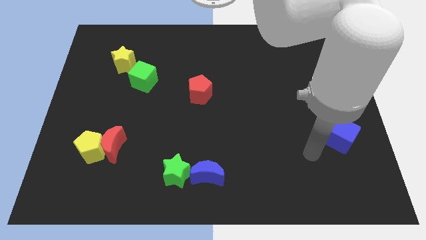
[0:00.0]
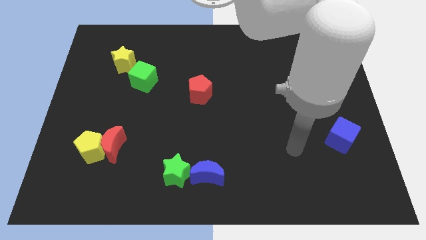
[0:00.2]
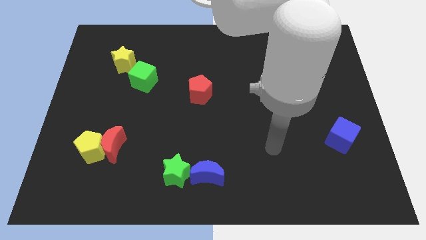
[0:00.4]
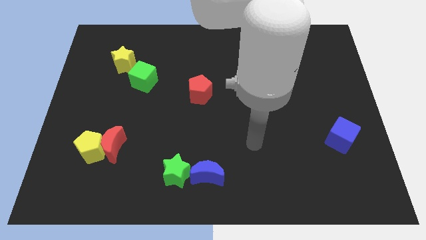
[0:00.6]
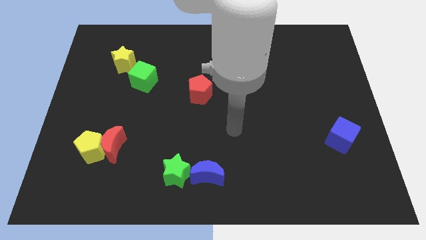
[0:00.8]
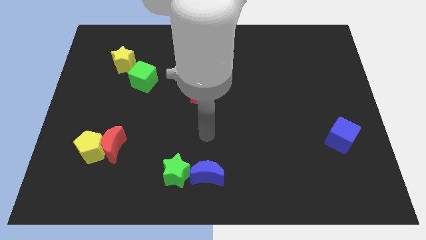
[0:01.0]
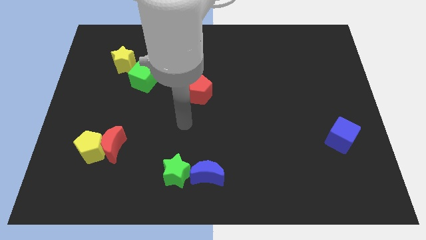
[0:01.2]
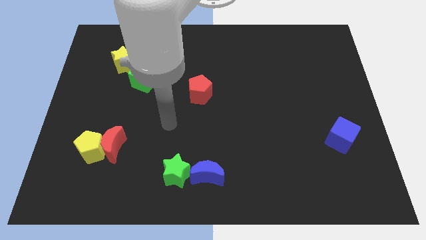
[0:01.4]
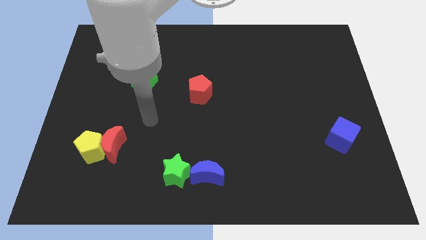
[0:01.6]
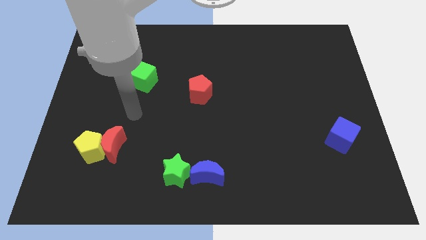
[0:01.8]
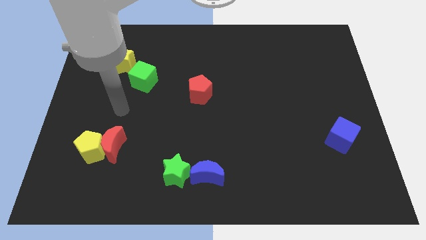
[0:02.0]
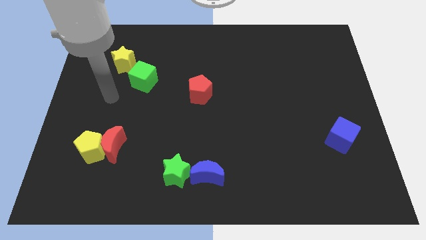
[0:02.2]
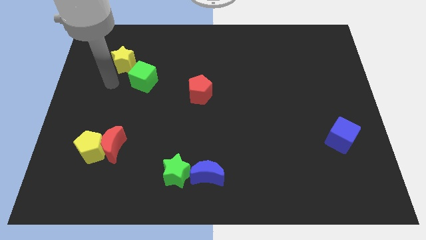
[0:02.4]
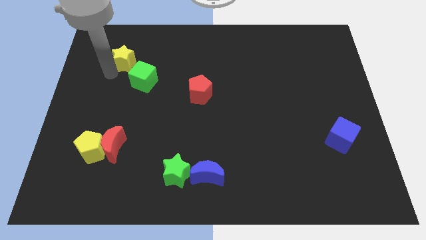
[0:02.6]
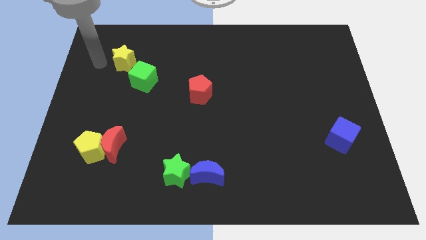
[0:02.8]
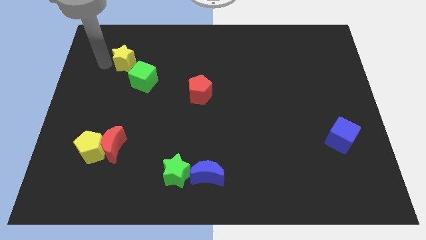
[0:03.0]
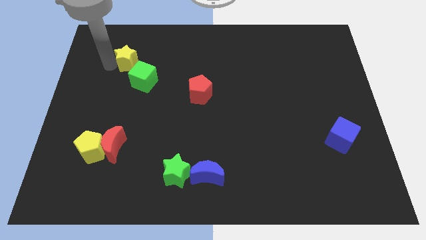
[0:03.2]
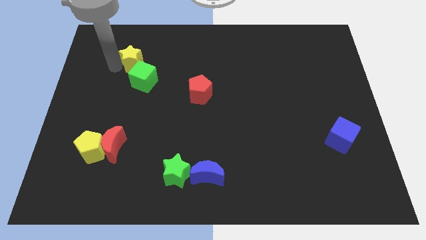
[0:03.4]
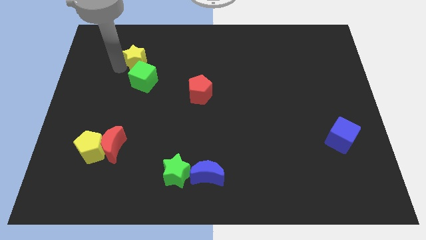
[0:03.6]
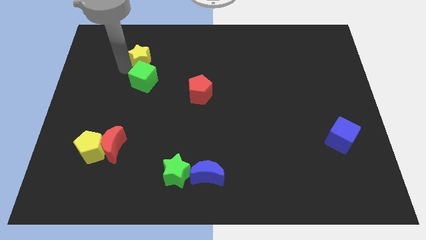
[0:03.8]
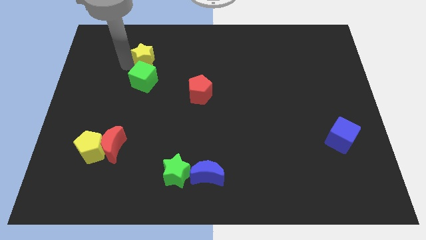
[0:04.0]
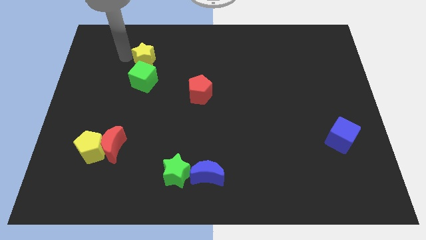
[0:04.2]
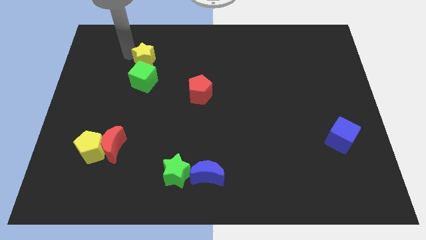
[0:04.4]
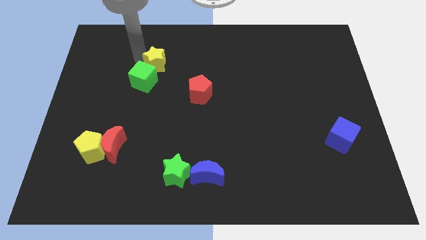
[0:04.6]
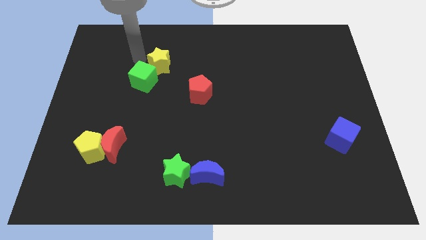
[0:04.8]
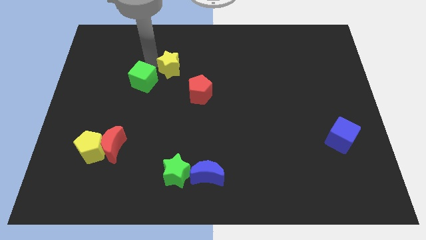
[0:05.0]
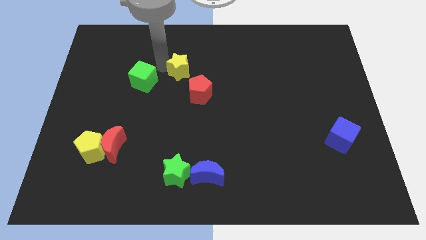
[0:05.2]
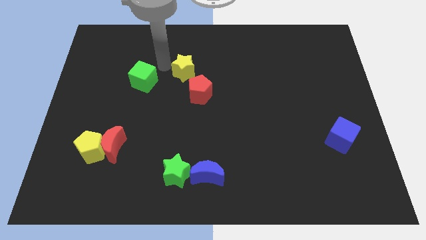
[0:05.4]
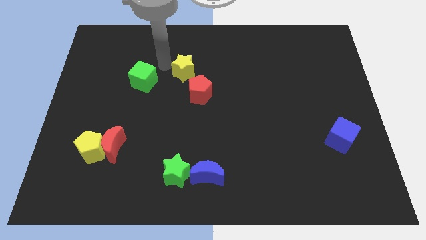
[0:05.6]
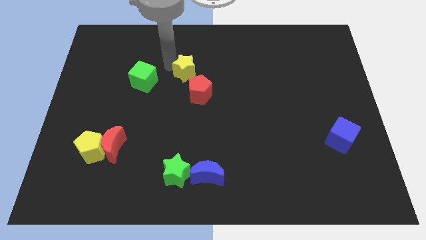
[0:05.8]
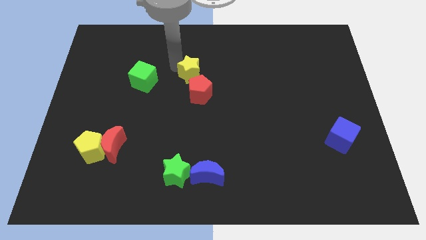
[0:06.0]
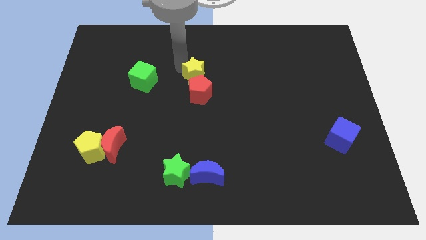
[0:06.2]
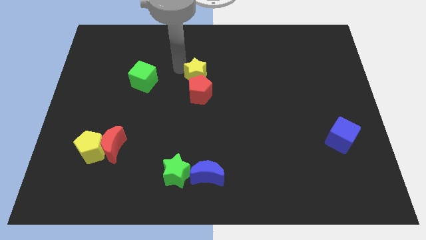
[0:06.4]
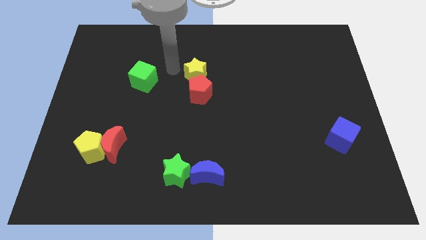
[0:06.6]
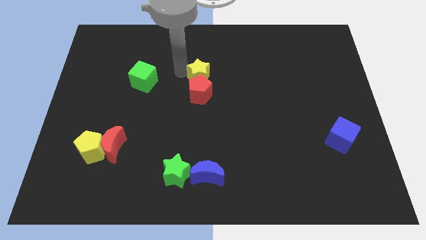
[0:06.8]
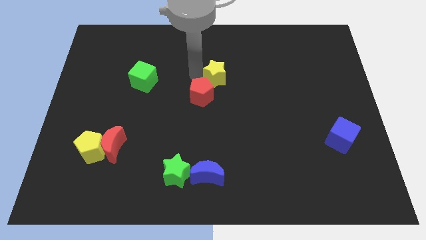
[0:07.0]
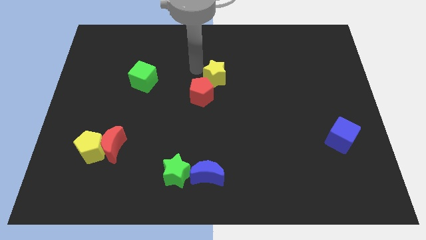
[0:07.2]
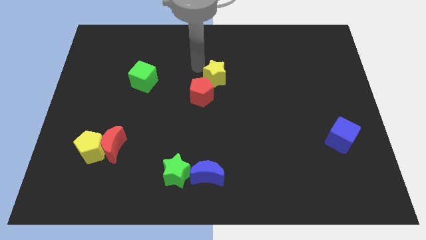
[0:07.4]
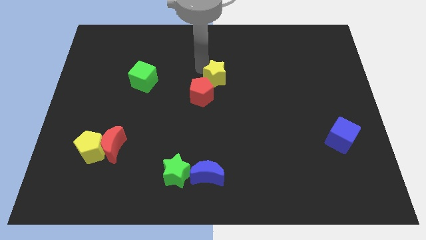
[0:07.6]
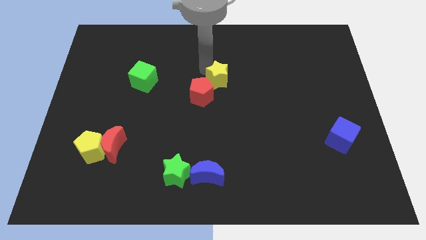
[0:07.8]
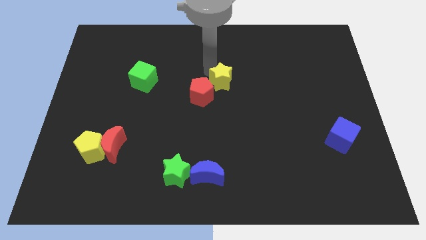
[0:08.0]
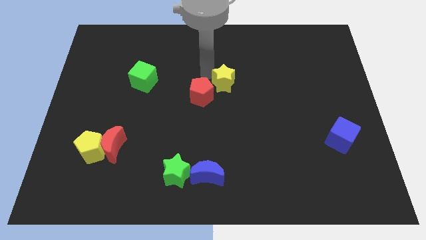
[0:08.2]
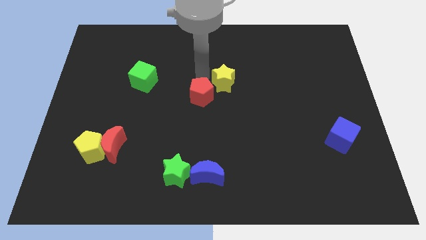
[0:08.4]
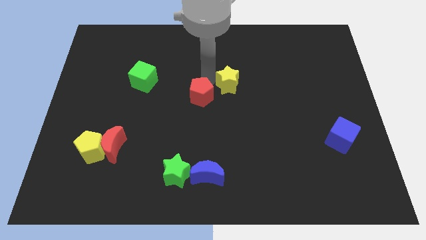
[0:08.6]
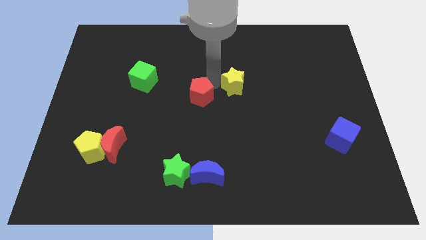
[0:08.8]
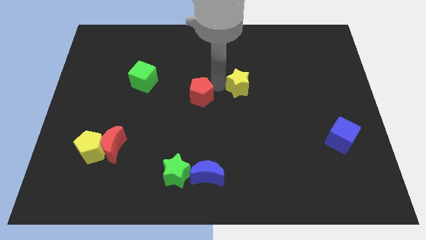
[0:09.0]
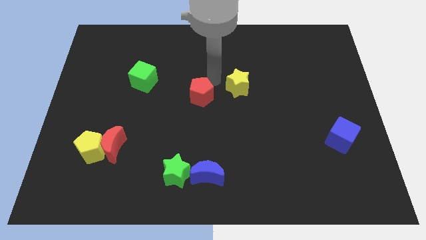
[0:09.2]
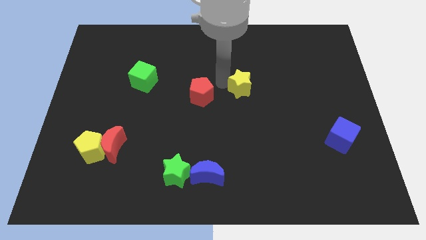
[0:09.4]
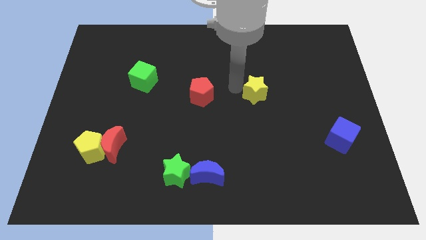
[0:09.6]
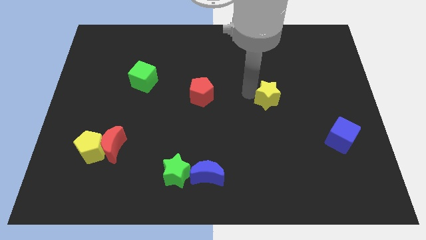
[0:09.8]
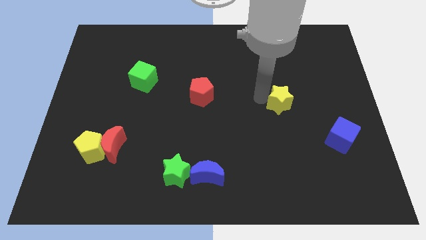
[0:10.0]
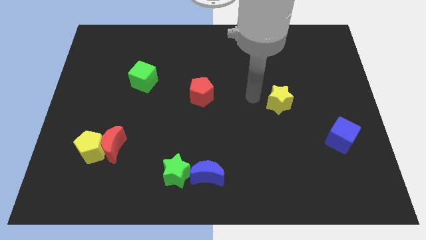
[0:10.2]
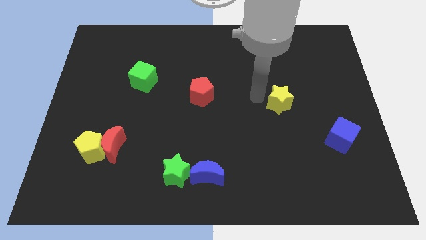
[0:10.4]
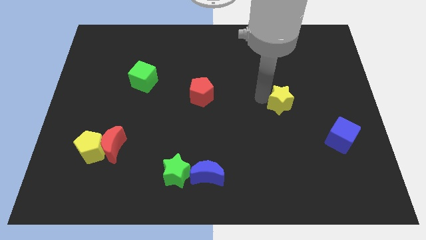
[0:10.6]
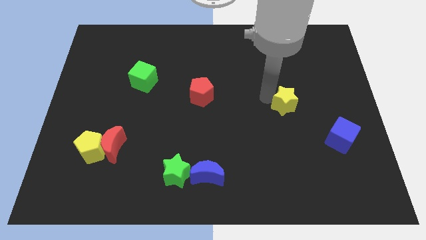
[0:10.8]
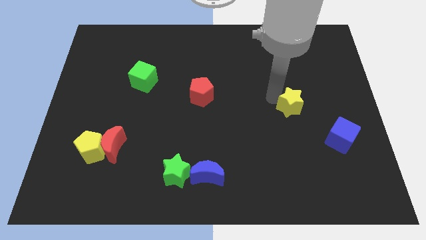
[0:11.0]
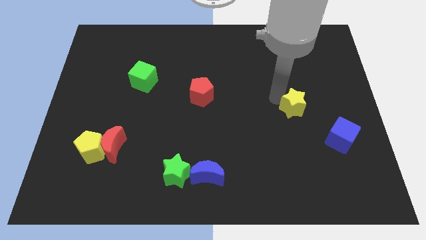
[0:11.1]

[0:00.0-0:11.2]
push the yellow star to the top left side of the blue cube

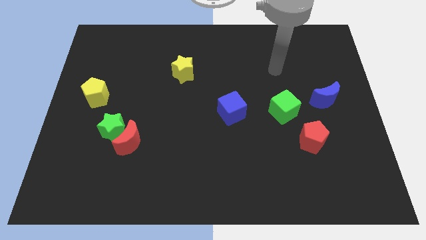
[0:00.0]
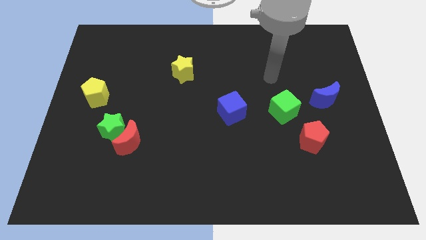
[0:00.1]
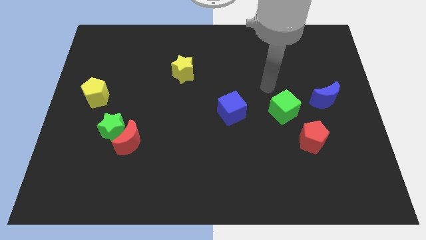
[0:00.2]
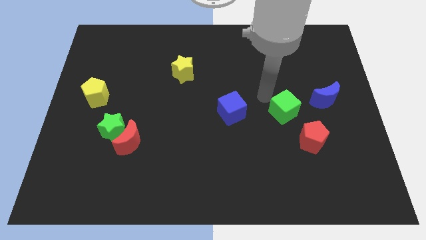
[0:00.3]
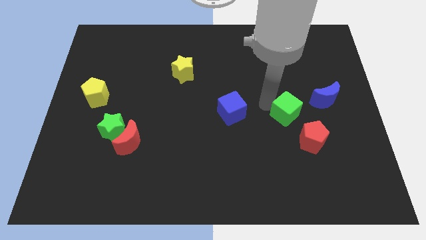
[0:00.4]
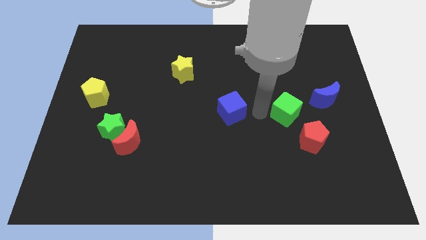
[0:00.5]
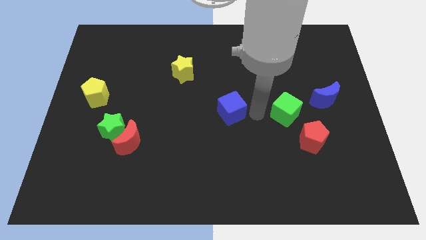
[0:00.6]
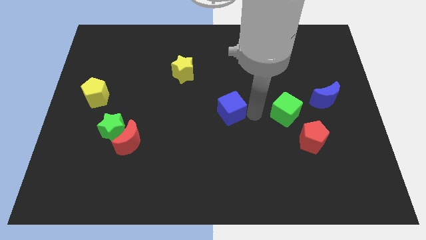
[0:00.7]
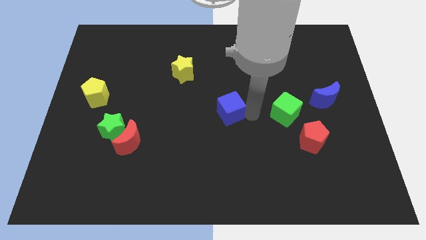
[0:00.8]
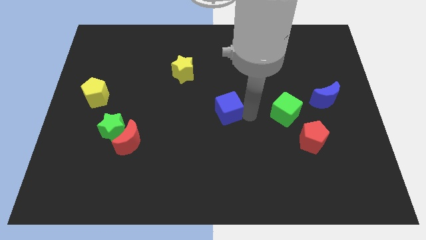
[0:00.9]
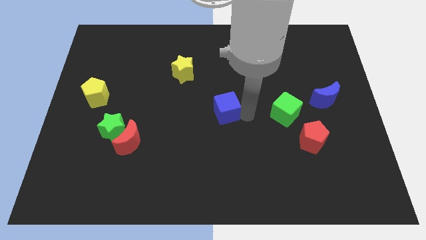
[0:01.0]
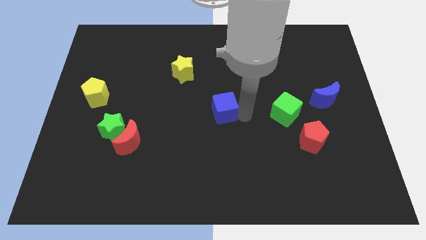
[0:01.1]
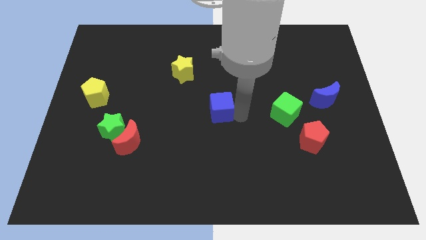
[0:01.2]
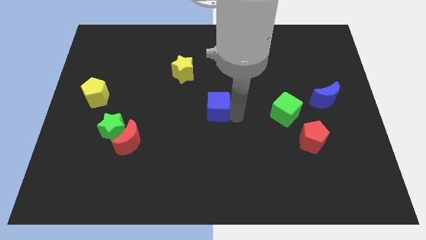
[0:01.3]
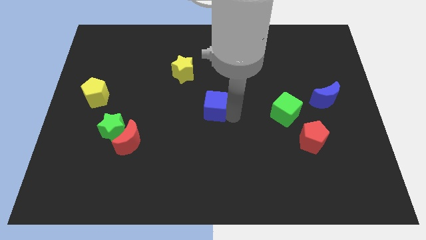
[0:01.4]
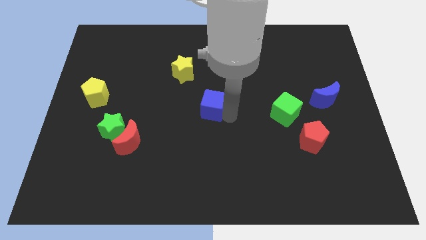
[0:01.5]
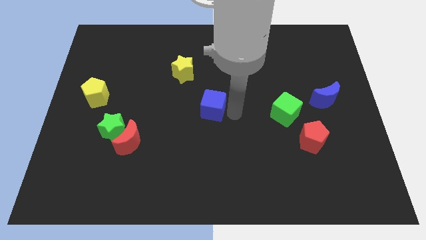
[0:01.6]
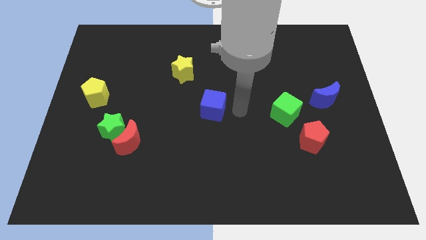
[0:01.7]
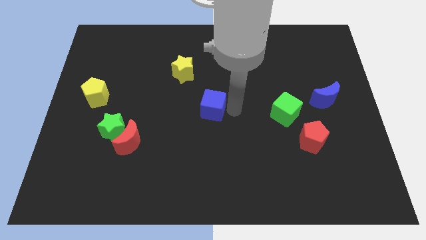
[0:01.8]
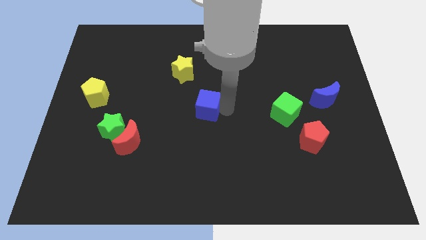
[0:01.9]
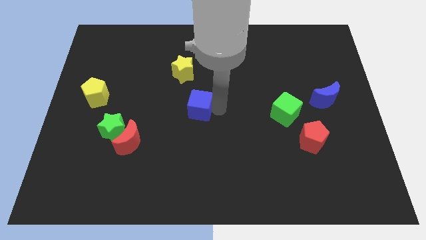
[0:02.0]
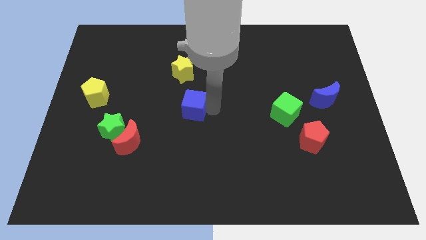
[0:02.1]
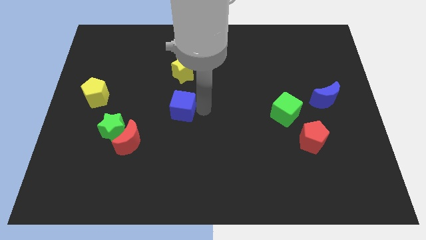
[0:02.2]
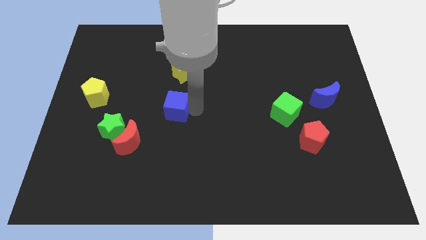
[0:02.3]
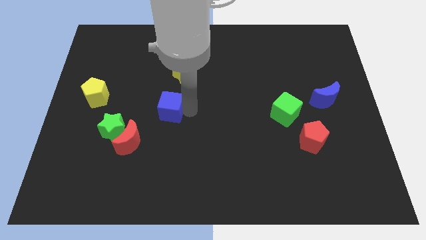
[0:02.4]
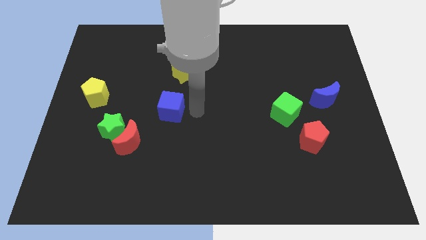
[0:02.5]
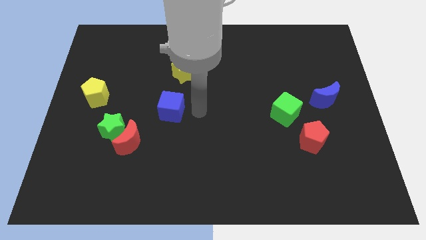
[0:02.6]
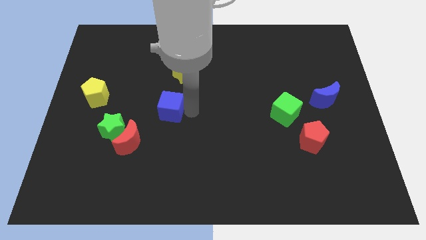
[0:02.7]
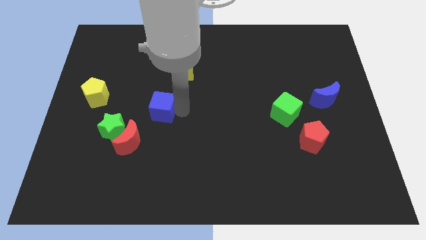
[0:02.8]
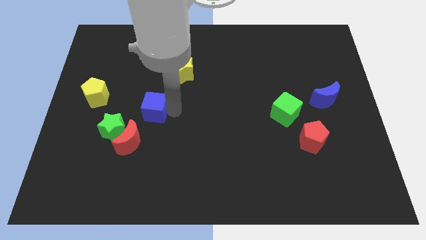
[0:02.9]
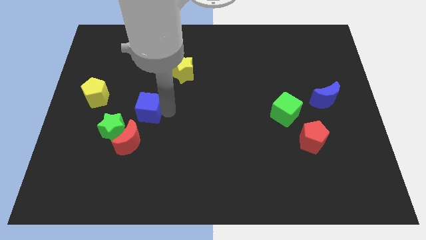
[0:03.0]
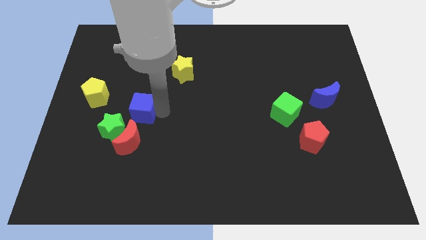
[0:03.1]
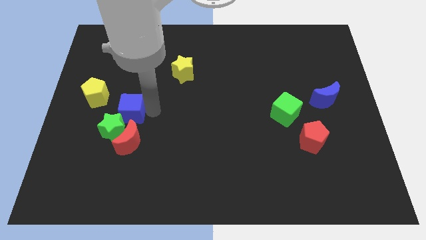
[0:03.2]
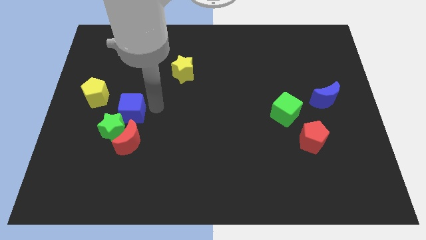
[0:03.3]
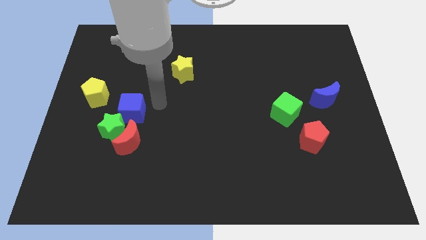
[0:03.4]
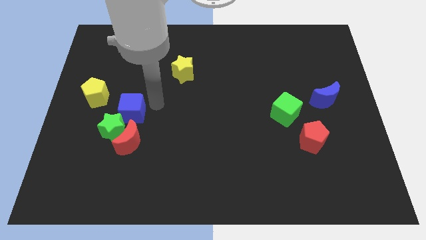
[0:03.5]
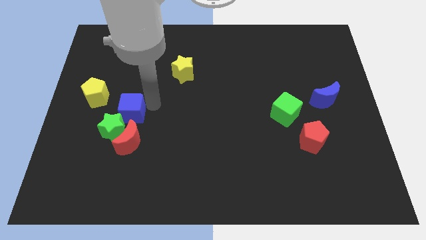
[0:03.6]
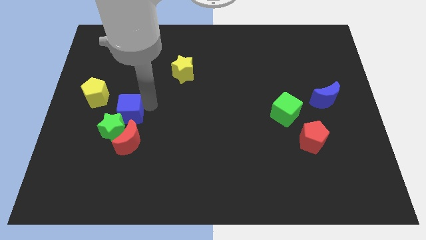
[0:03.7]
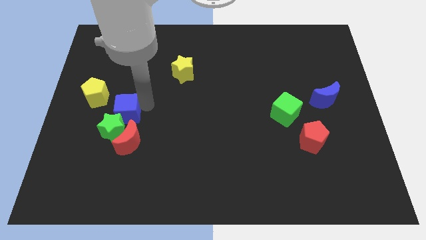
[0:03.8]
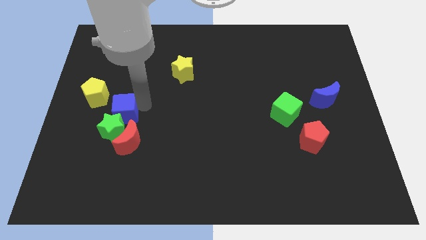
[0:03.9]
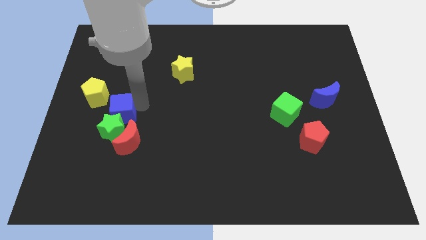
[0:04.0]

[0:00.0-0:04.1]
put the blue cube diagonally up and to the left of the green star
